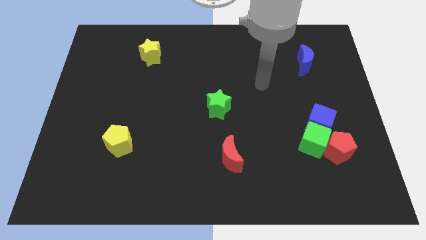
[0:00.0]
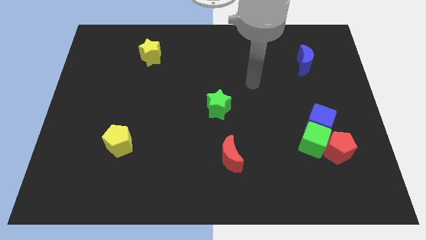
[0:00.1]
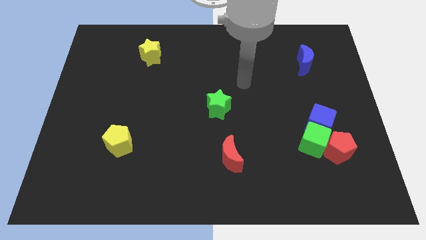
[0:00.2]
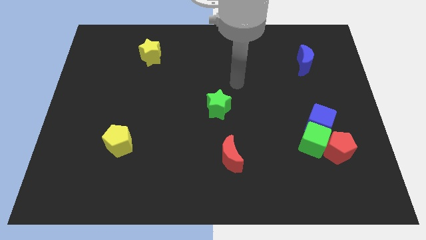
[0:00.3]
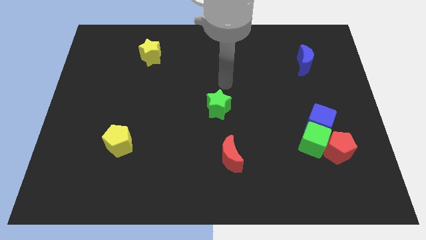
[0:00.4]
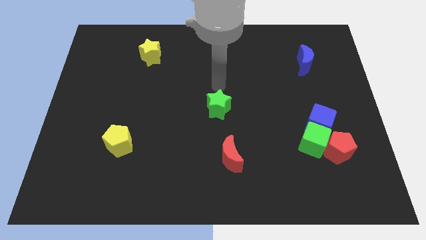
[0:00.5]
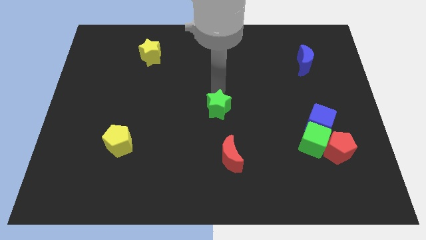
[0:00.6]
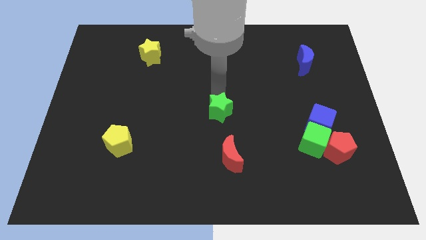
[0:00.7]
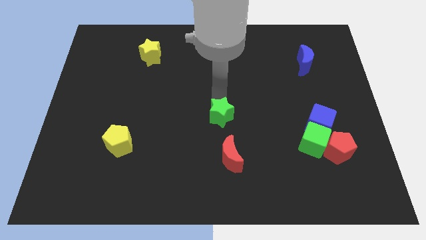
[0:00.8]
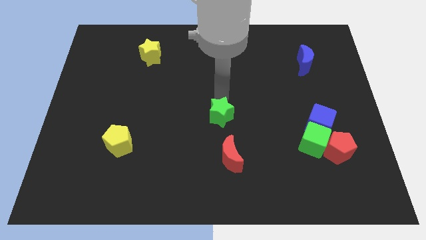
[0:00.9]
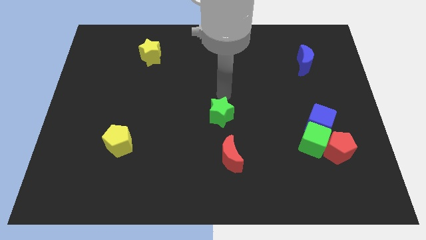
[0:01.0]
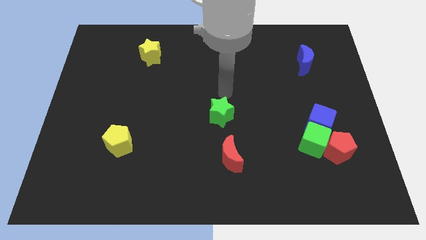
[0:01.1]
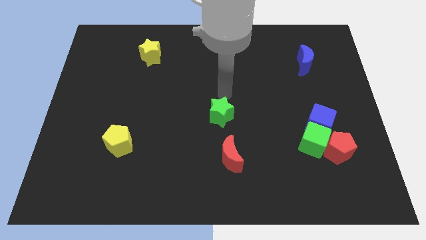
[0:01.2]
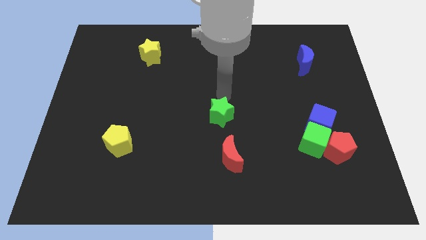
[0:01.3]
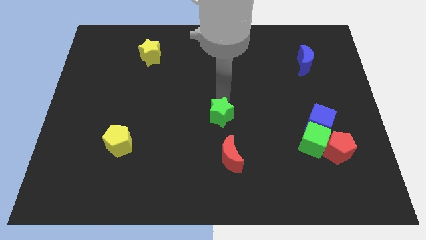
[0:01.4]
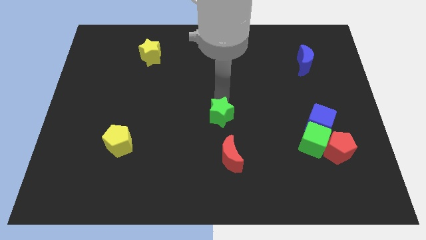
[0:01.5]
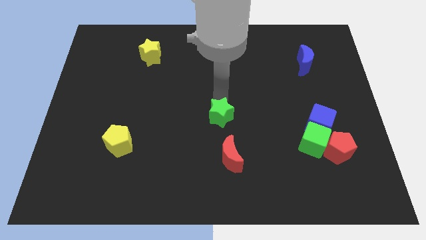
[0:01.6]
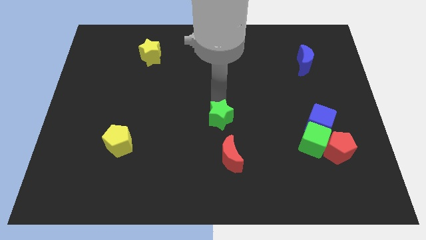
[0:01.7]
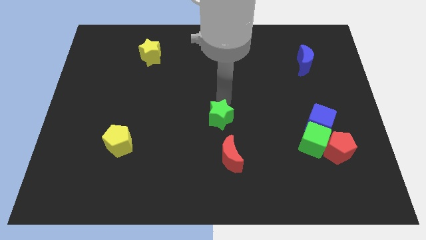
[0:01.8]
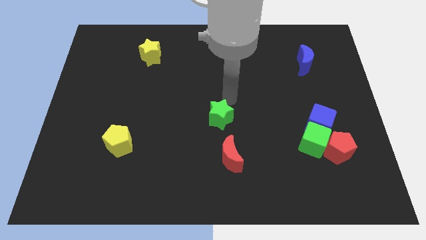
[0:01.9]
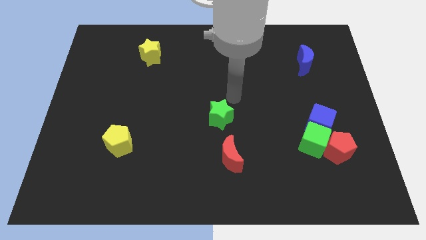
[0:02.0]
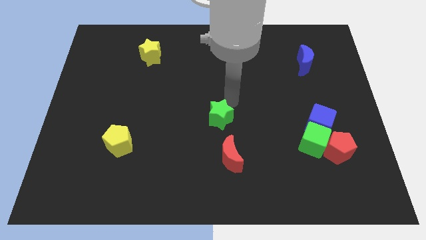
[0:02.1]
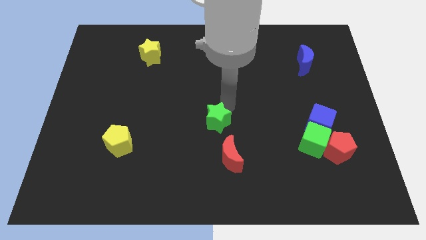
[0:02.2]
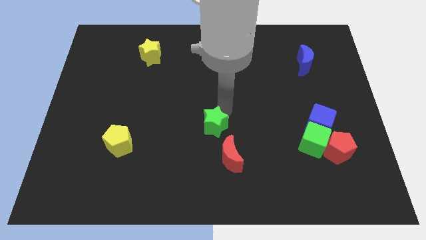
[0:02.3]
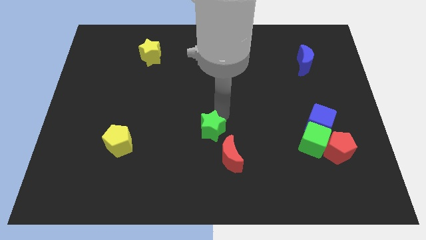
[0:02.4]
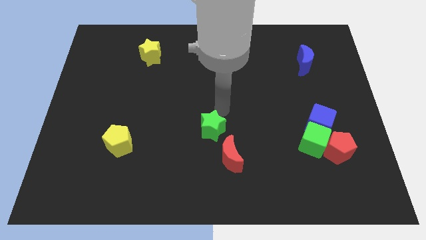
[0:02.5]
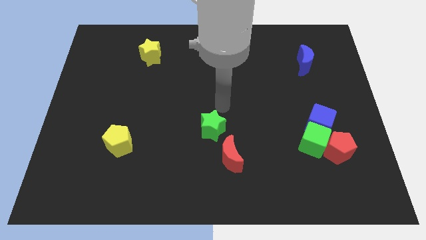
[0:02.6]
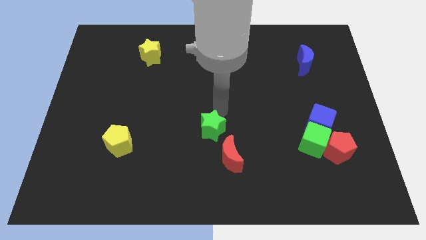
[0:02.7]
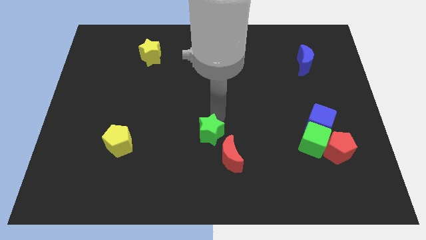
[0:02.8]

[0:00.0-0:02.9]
slightly push the green star downwards

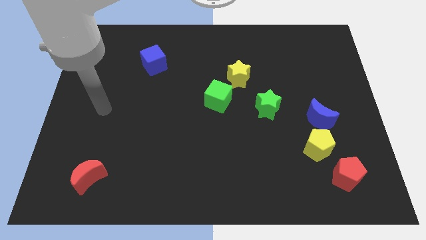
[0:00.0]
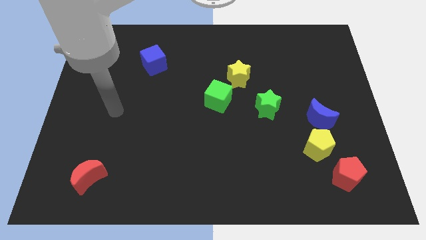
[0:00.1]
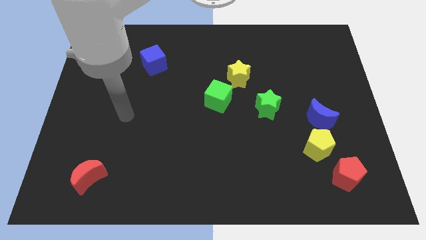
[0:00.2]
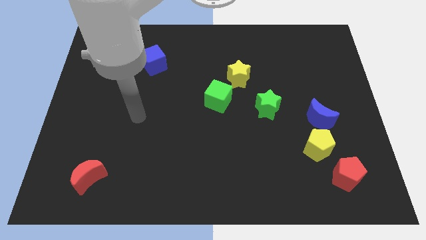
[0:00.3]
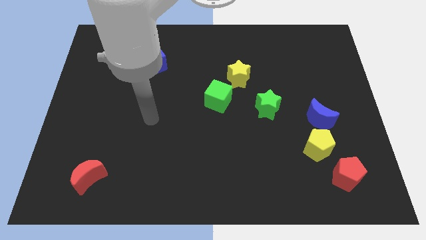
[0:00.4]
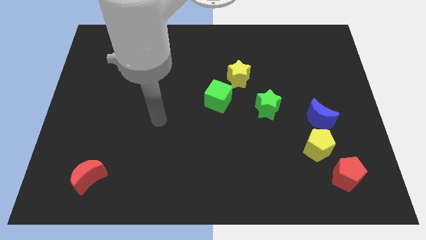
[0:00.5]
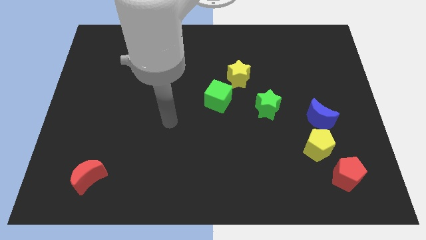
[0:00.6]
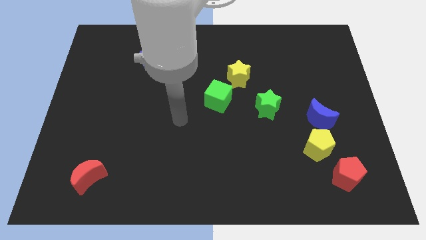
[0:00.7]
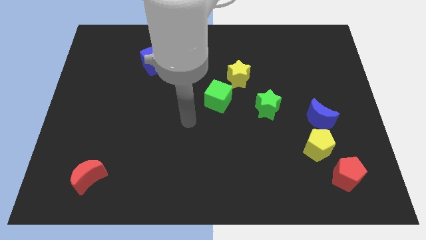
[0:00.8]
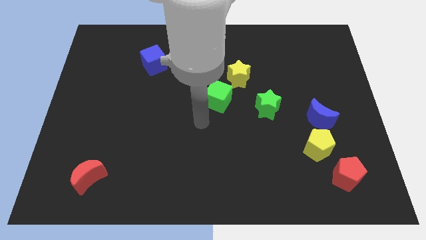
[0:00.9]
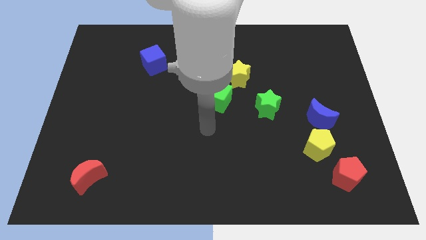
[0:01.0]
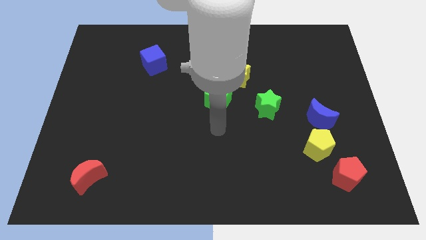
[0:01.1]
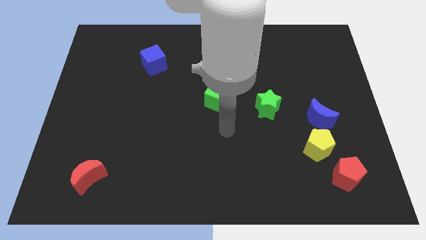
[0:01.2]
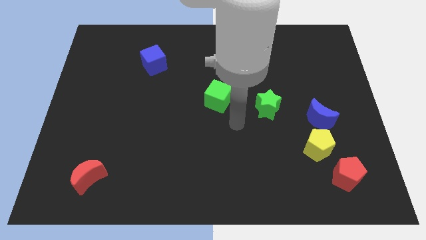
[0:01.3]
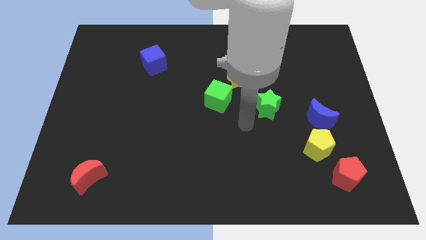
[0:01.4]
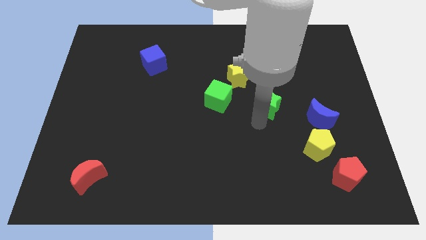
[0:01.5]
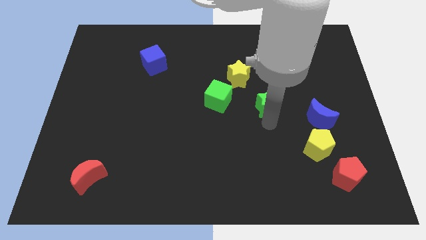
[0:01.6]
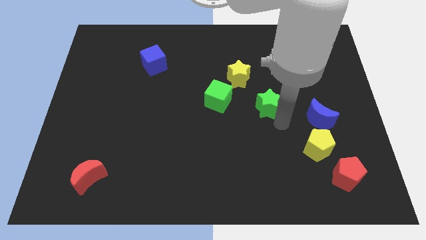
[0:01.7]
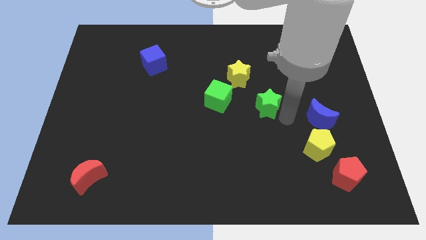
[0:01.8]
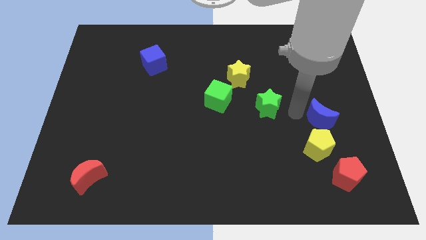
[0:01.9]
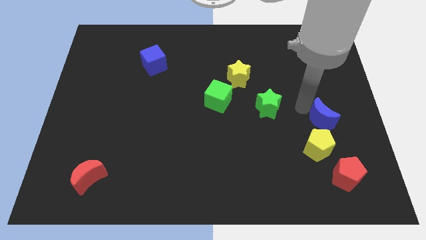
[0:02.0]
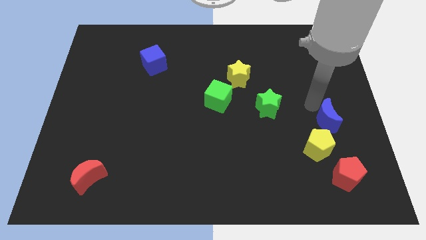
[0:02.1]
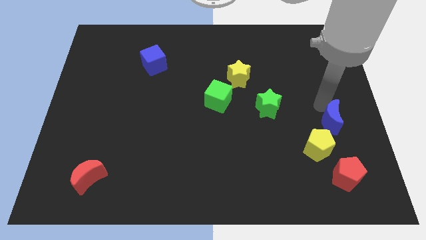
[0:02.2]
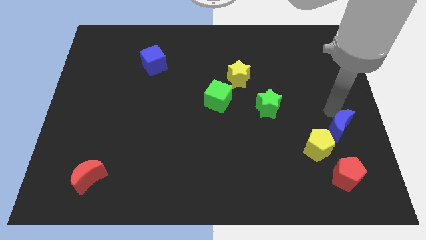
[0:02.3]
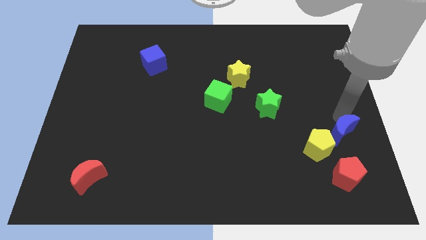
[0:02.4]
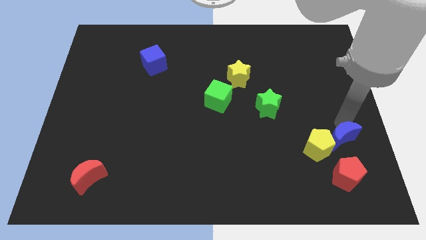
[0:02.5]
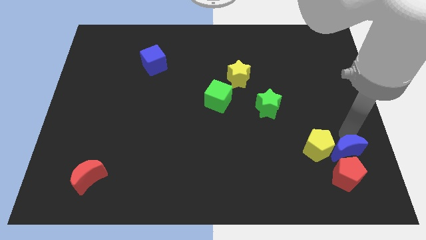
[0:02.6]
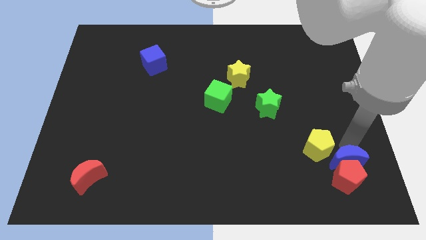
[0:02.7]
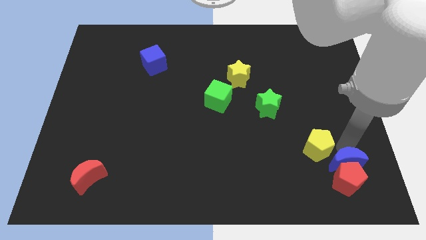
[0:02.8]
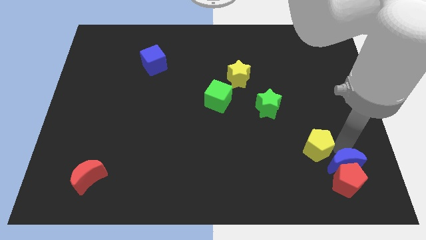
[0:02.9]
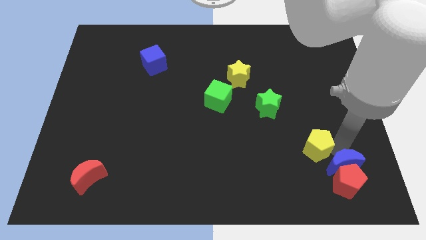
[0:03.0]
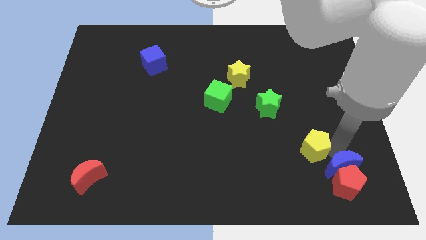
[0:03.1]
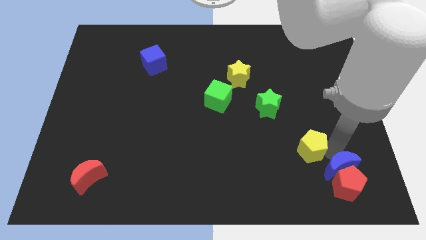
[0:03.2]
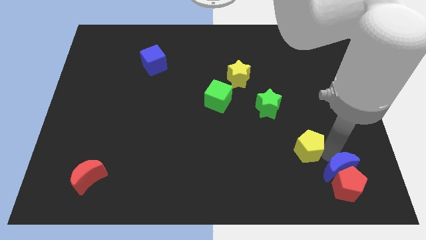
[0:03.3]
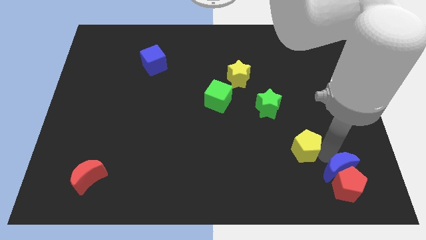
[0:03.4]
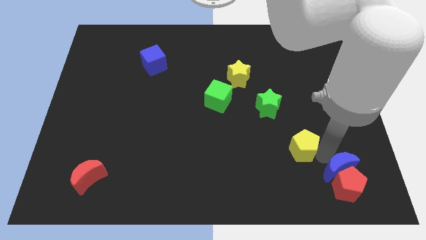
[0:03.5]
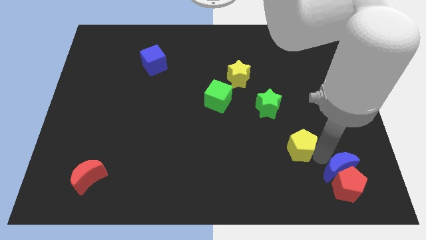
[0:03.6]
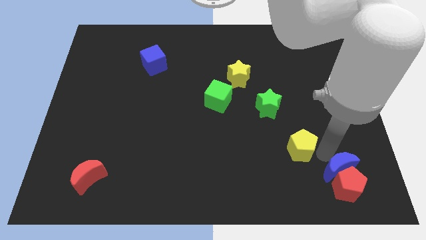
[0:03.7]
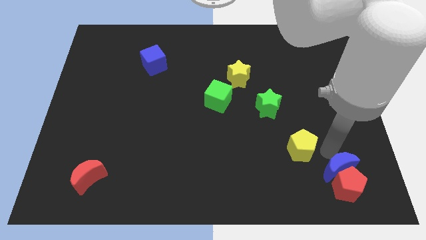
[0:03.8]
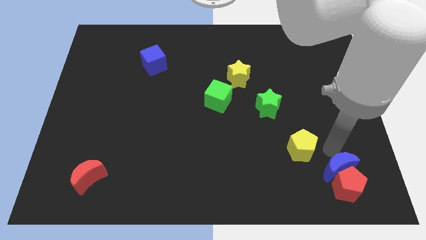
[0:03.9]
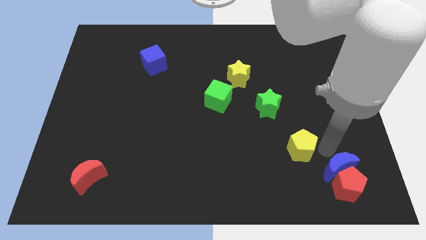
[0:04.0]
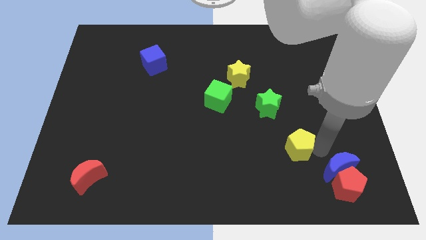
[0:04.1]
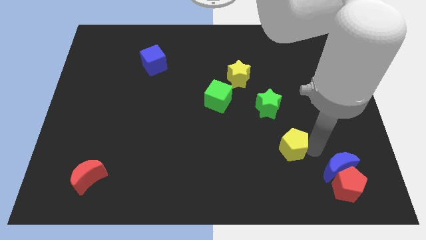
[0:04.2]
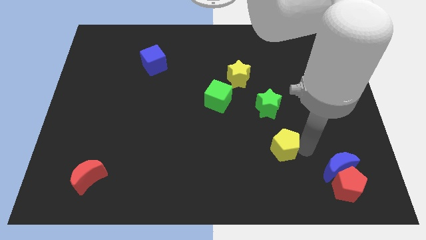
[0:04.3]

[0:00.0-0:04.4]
slightly move the yellow pentagon left

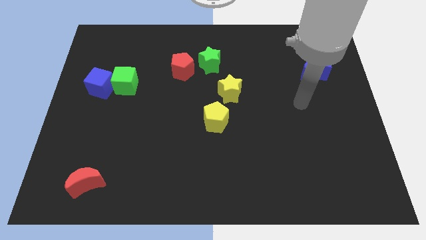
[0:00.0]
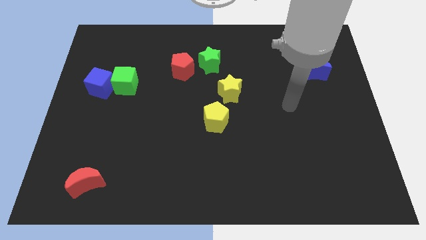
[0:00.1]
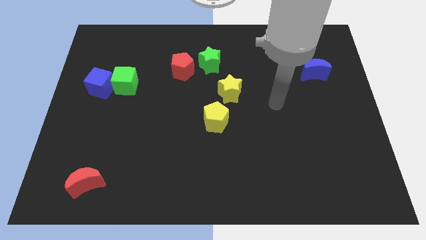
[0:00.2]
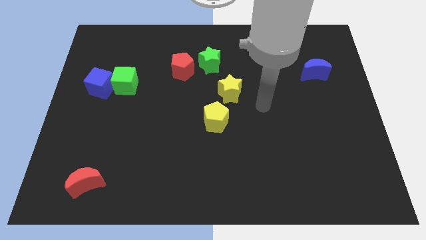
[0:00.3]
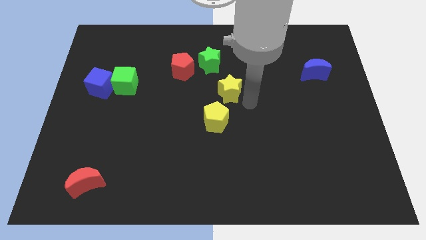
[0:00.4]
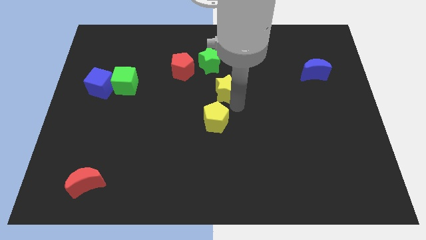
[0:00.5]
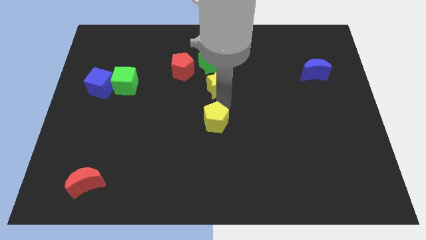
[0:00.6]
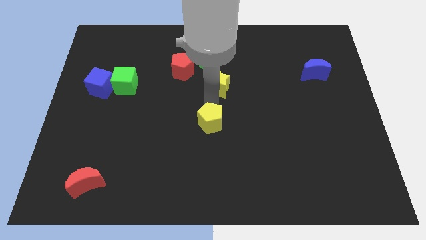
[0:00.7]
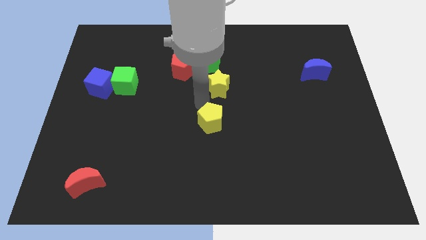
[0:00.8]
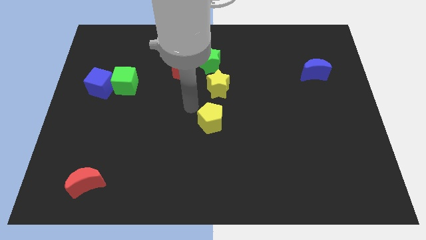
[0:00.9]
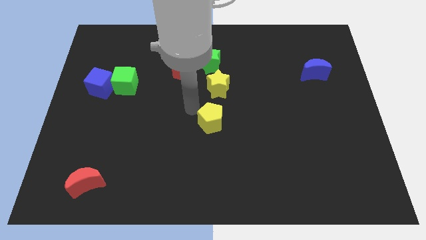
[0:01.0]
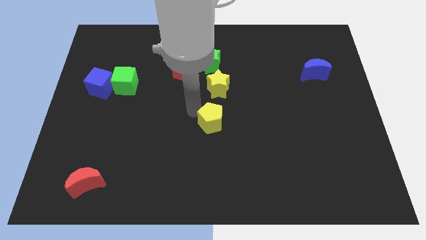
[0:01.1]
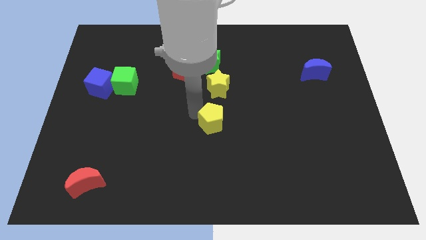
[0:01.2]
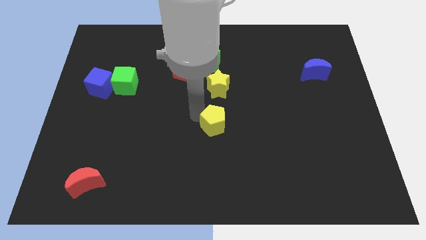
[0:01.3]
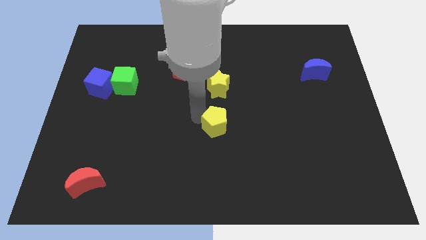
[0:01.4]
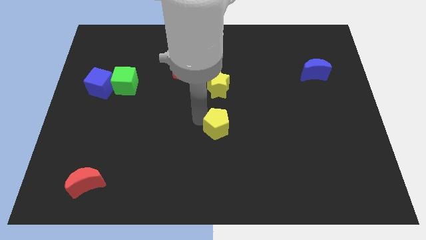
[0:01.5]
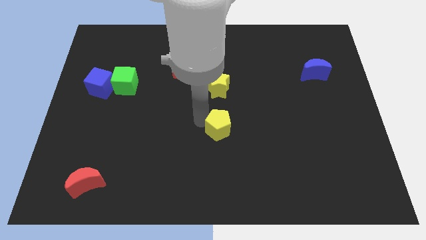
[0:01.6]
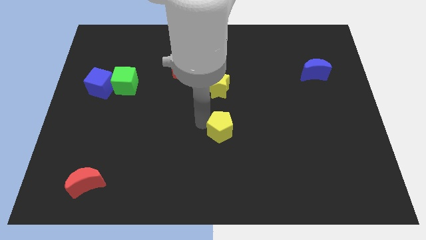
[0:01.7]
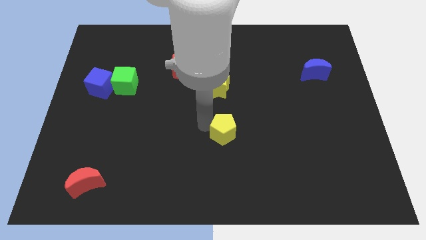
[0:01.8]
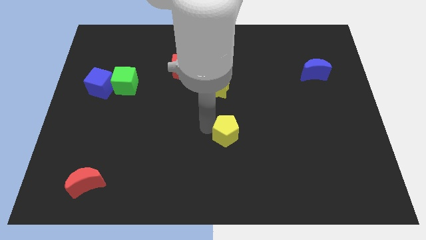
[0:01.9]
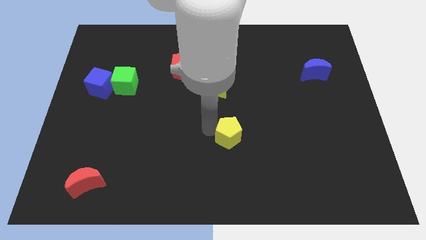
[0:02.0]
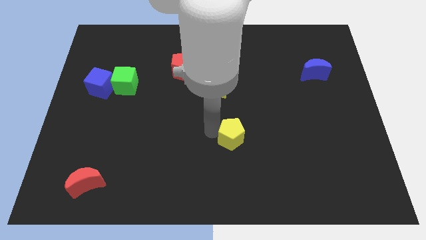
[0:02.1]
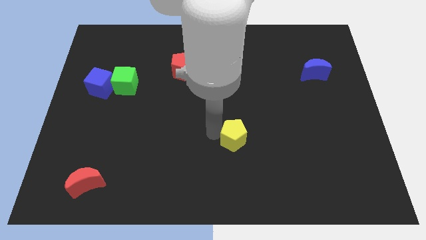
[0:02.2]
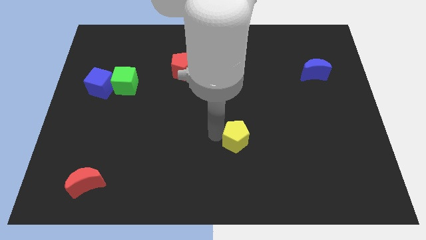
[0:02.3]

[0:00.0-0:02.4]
move the yellow pentagon slightly diagonally down and right
